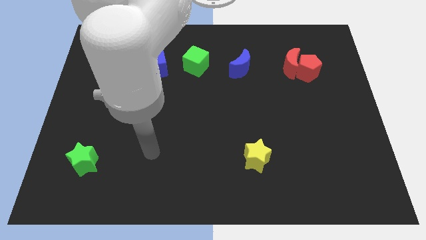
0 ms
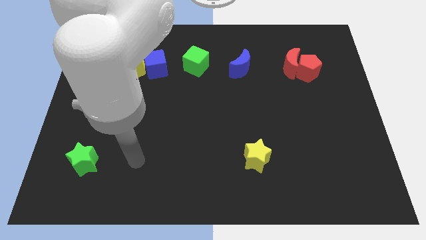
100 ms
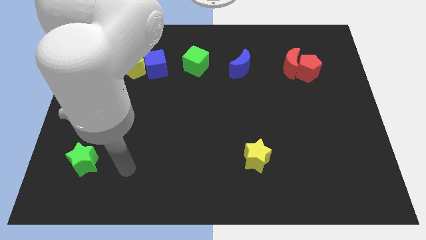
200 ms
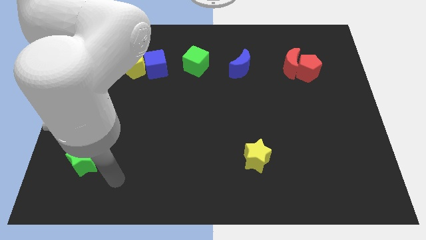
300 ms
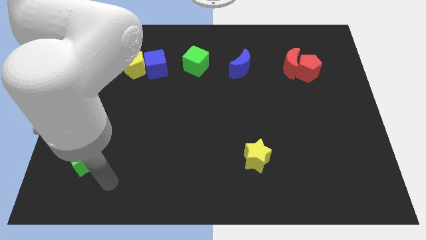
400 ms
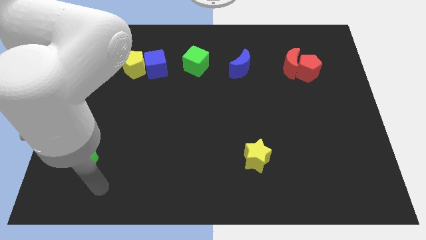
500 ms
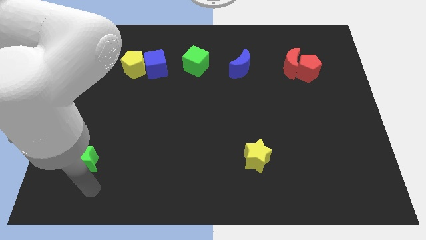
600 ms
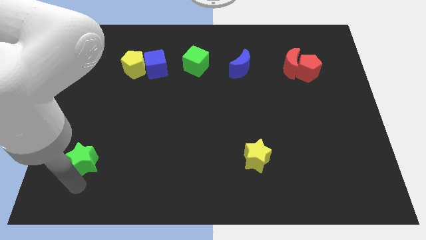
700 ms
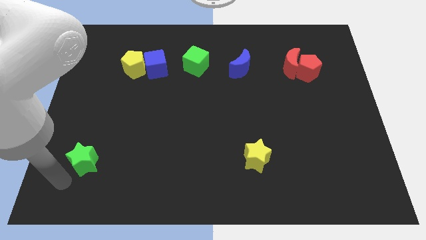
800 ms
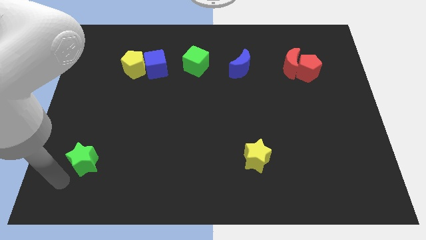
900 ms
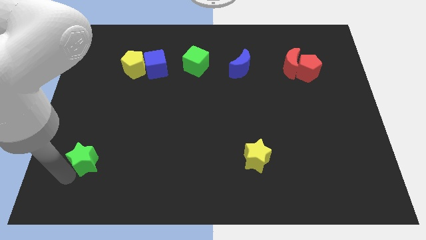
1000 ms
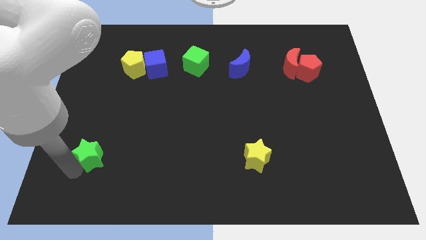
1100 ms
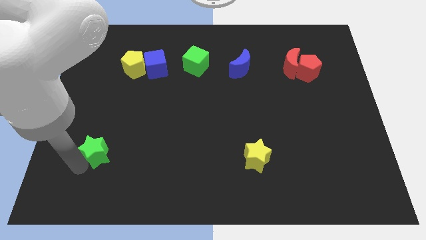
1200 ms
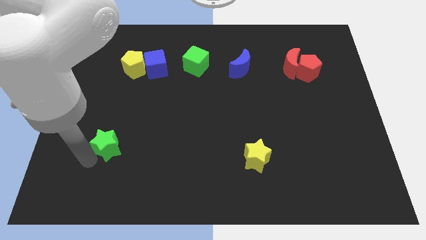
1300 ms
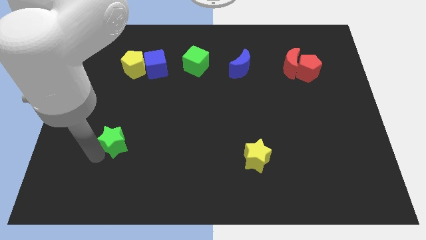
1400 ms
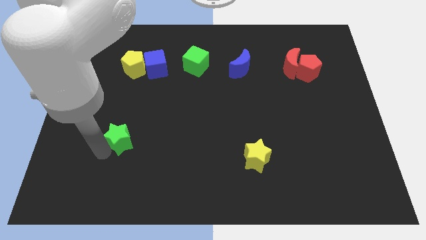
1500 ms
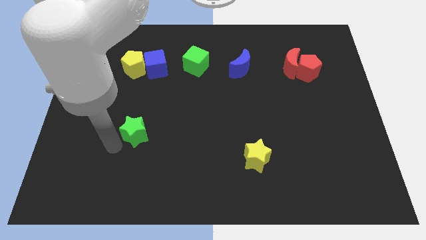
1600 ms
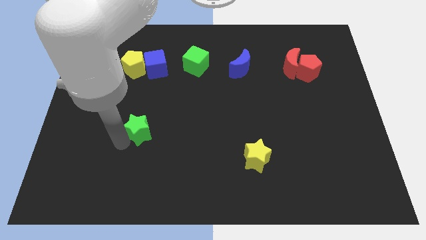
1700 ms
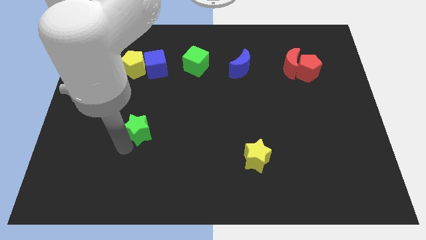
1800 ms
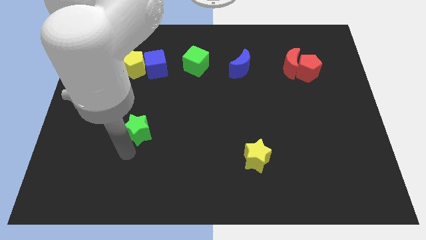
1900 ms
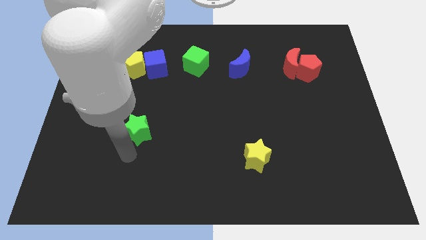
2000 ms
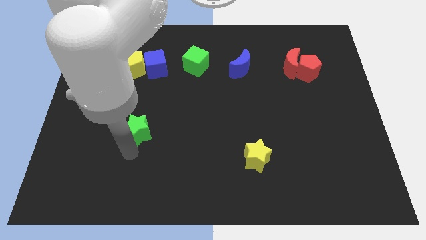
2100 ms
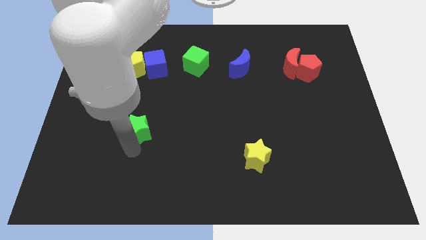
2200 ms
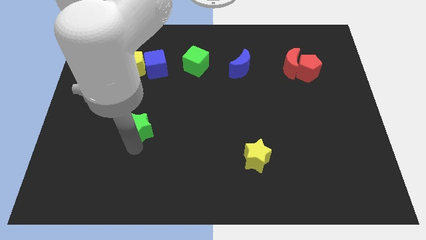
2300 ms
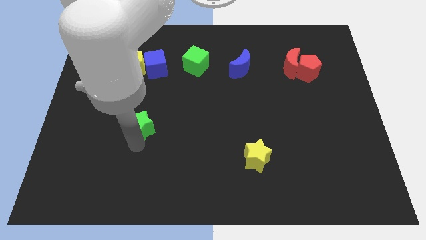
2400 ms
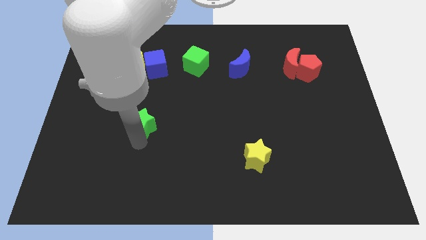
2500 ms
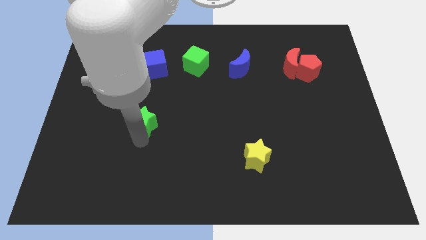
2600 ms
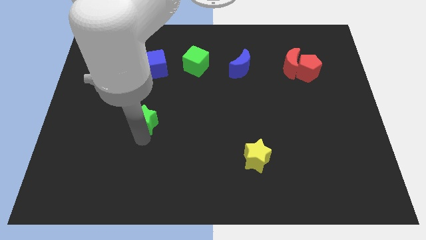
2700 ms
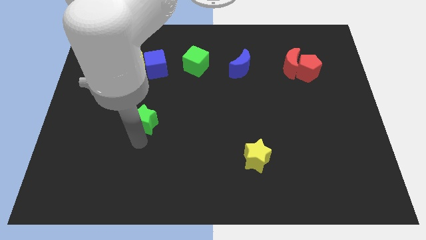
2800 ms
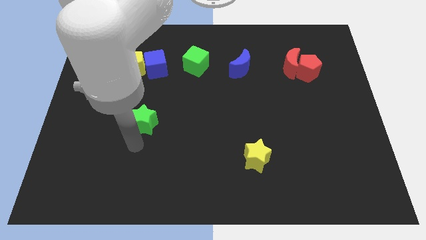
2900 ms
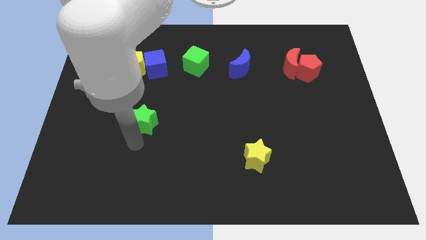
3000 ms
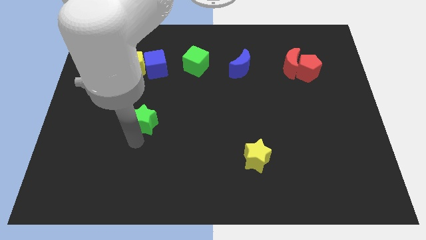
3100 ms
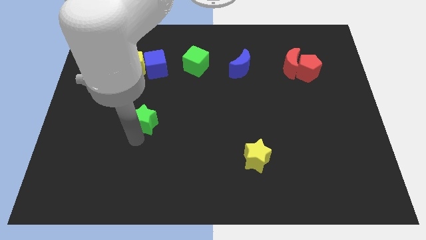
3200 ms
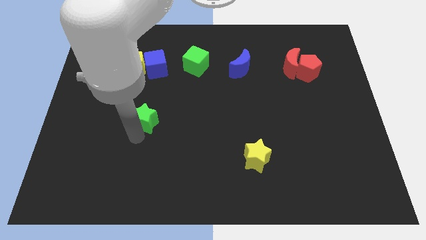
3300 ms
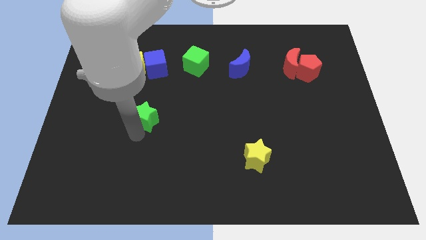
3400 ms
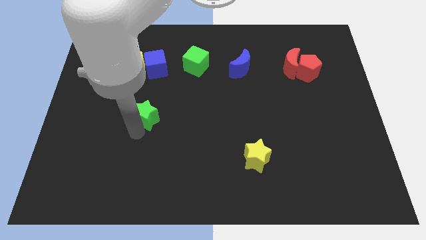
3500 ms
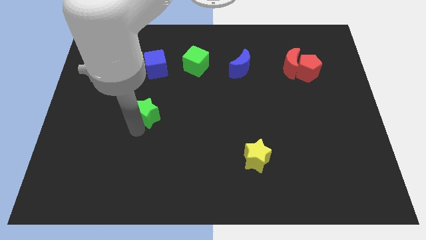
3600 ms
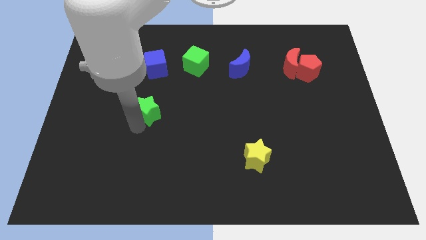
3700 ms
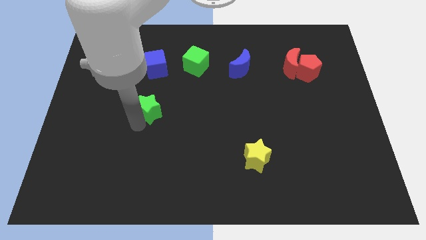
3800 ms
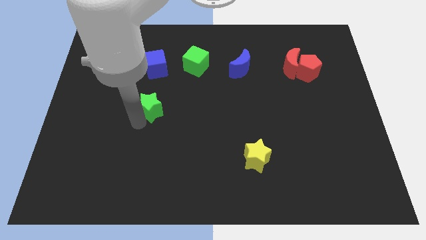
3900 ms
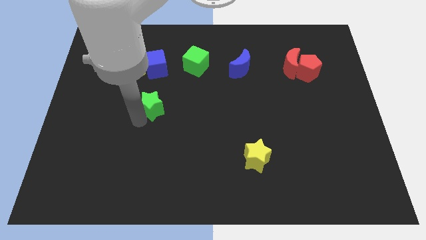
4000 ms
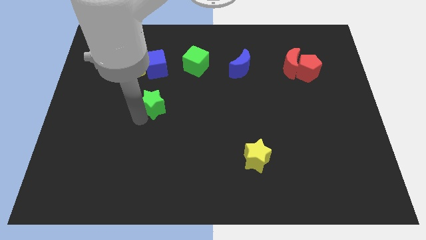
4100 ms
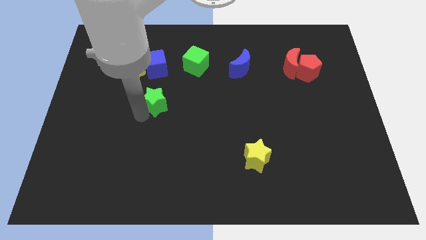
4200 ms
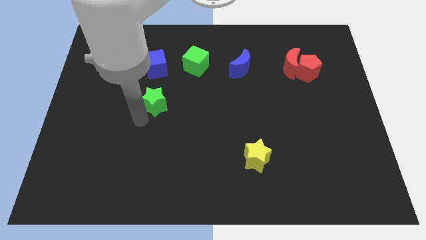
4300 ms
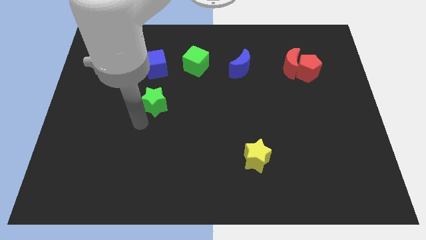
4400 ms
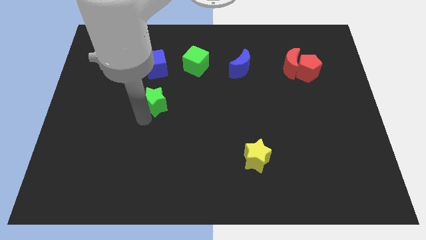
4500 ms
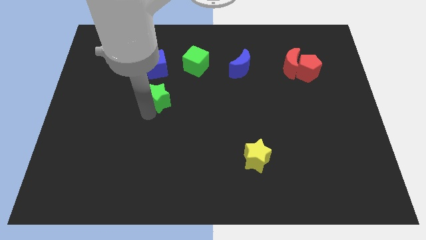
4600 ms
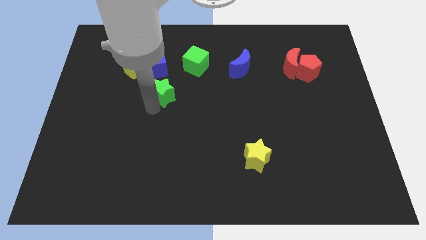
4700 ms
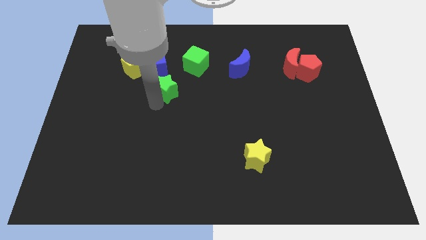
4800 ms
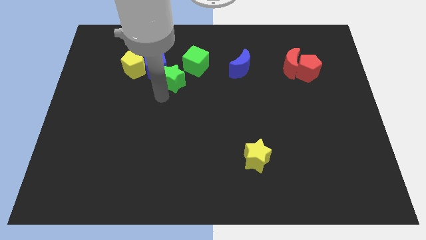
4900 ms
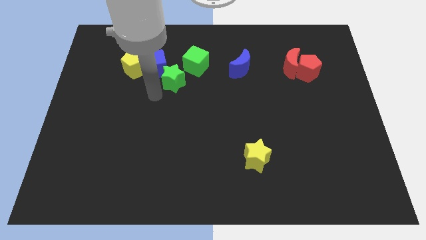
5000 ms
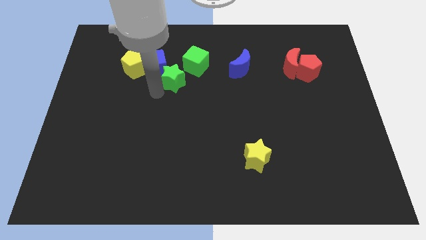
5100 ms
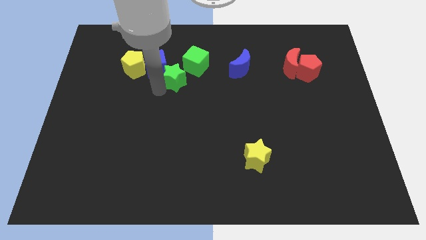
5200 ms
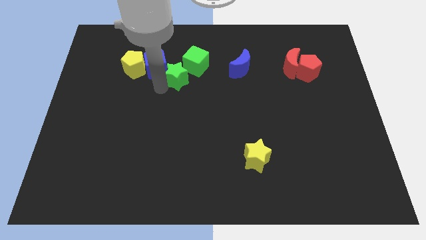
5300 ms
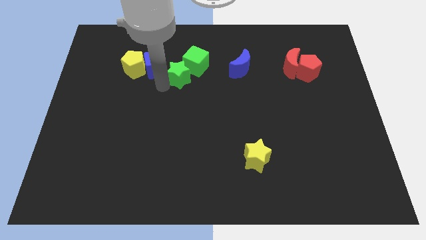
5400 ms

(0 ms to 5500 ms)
put the green star towards the green cube

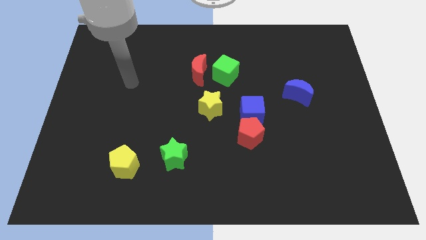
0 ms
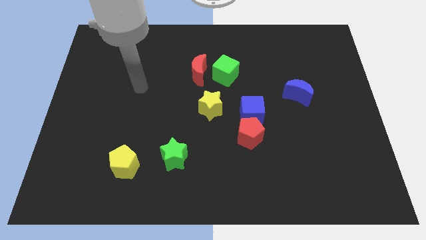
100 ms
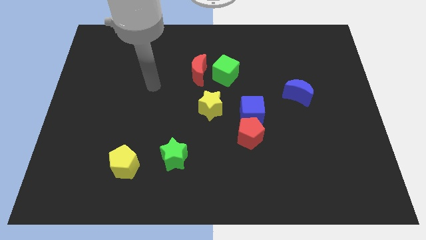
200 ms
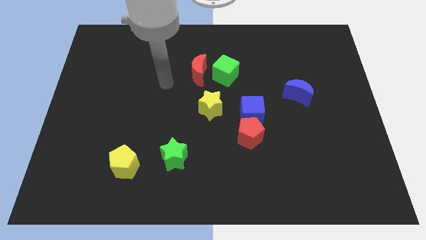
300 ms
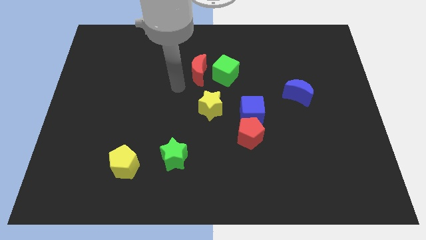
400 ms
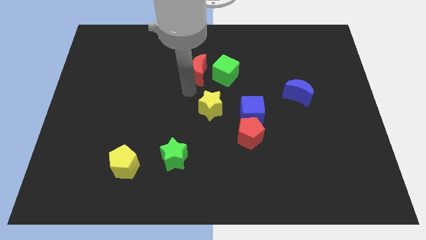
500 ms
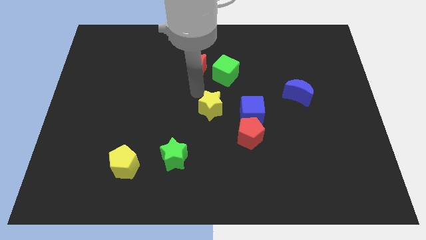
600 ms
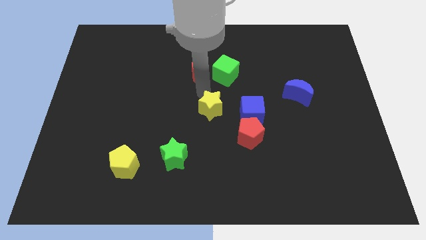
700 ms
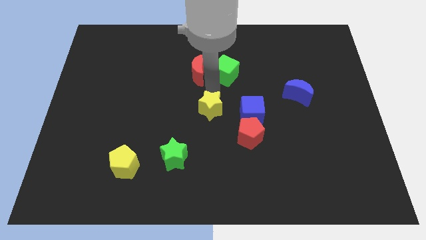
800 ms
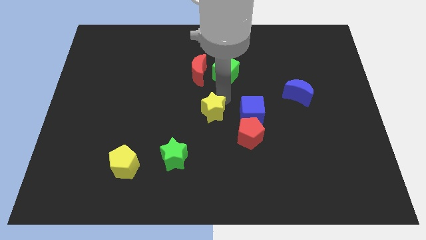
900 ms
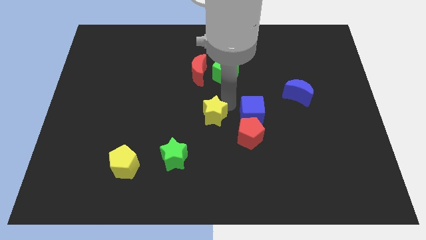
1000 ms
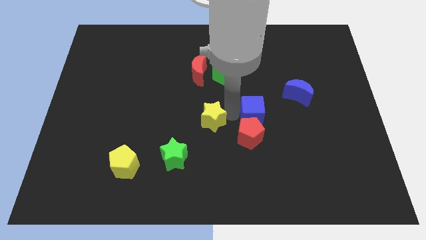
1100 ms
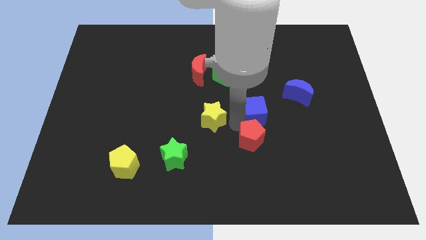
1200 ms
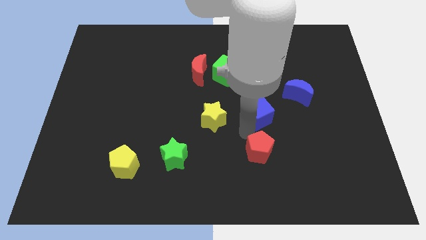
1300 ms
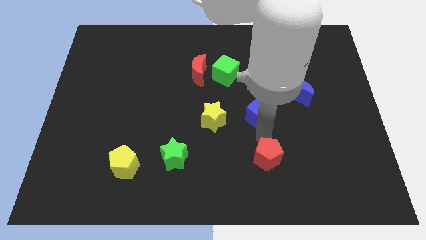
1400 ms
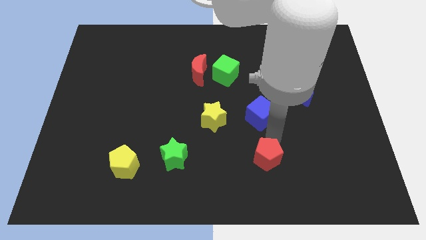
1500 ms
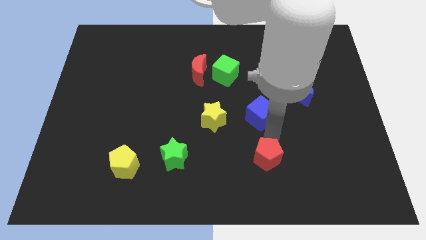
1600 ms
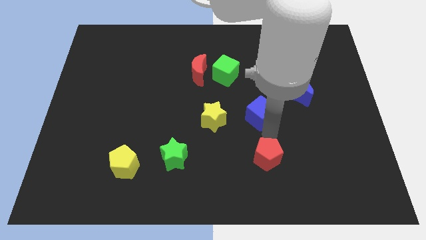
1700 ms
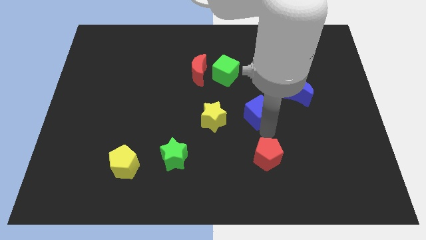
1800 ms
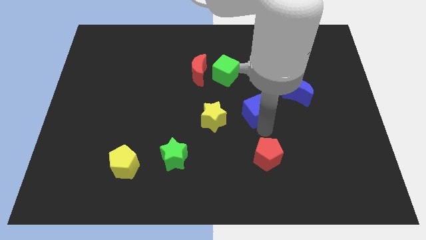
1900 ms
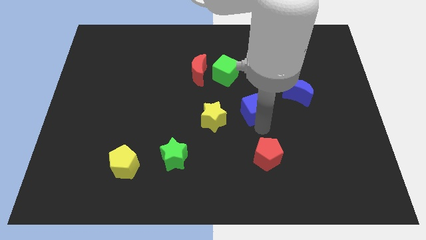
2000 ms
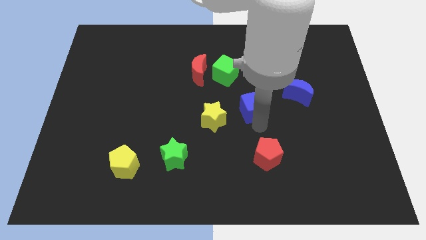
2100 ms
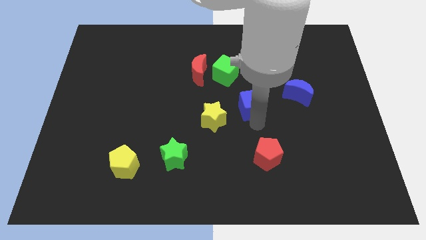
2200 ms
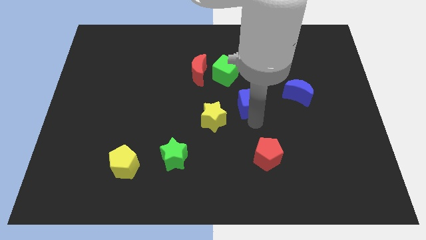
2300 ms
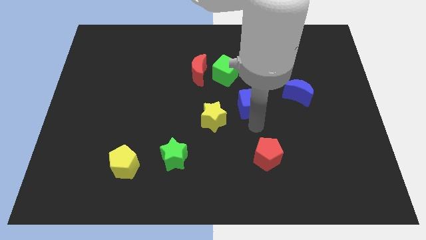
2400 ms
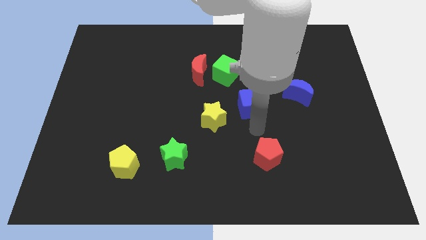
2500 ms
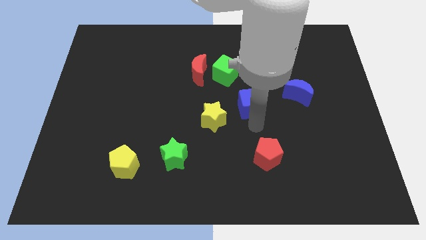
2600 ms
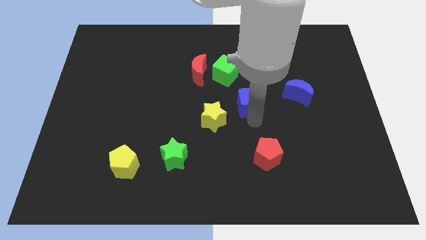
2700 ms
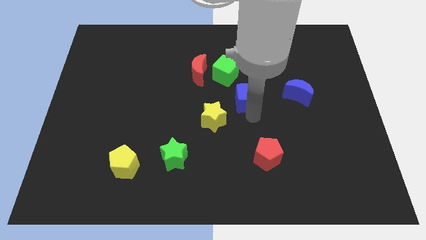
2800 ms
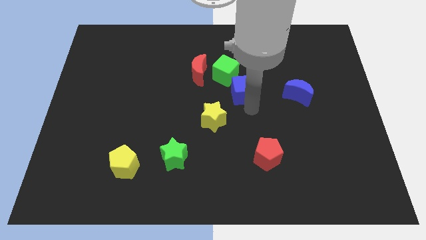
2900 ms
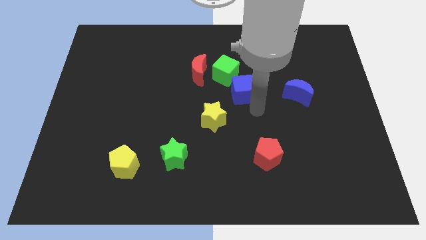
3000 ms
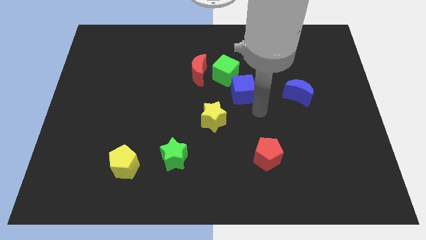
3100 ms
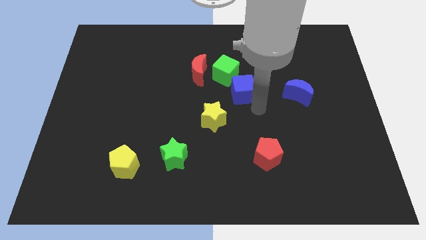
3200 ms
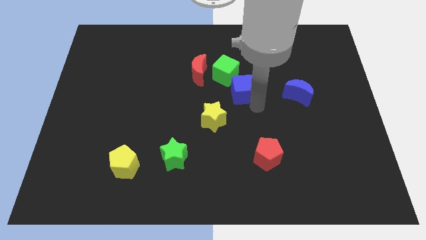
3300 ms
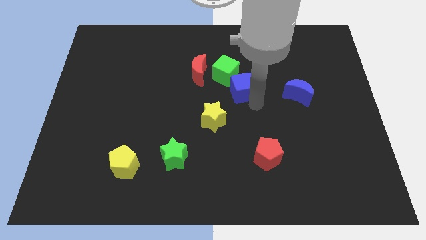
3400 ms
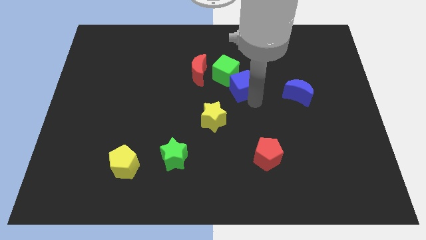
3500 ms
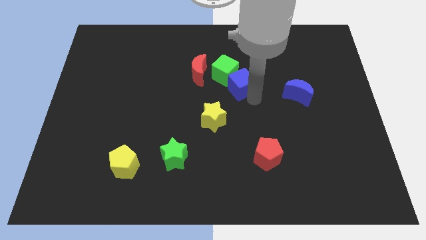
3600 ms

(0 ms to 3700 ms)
slide the blue cube to the green cube
